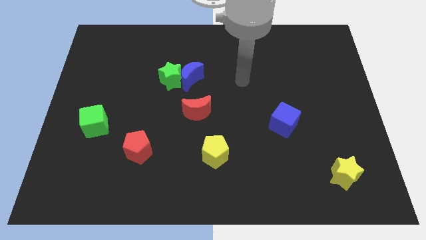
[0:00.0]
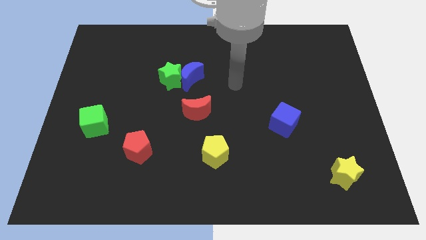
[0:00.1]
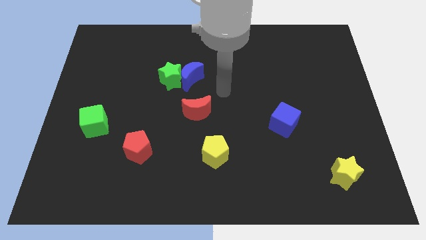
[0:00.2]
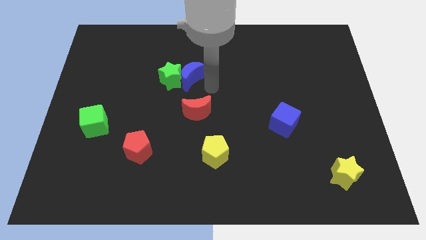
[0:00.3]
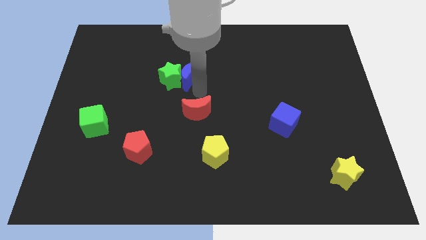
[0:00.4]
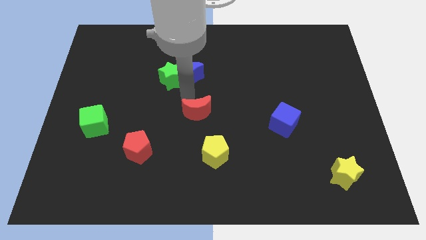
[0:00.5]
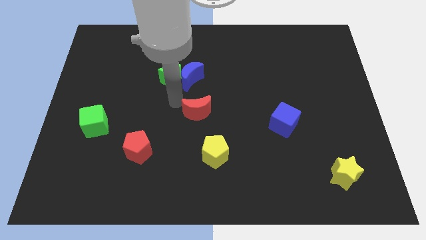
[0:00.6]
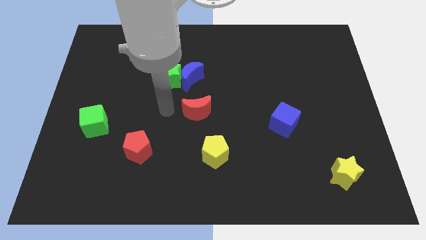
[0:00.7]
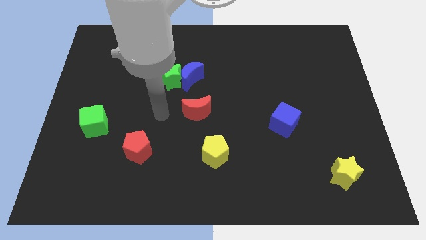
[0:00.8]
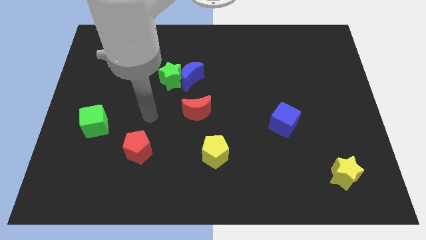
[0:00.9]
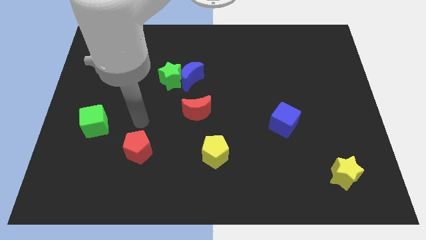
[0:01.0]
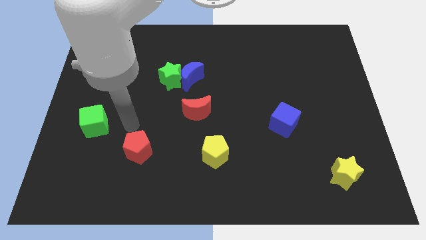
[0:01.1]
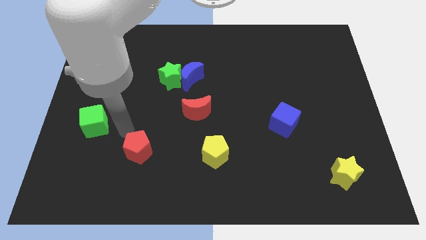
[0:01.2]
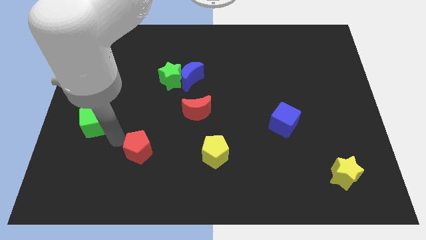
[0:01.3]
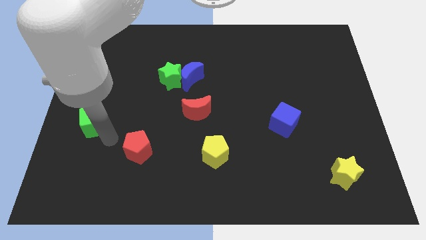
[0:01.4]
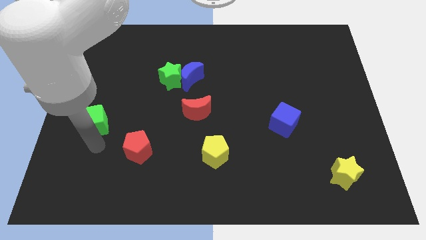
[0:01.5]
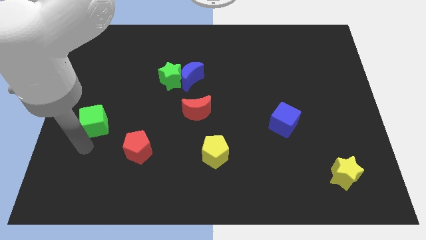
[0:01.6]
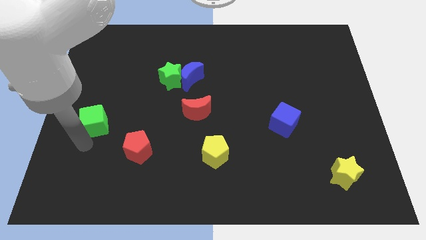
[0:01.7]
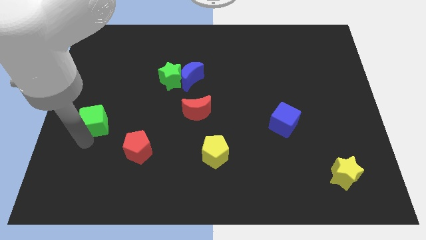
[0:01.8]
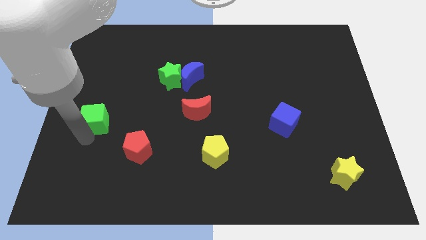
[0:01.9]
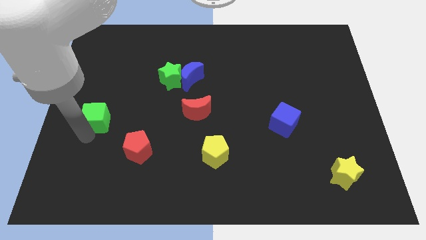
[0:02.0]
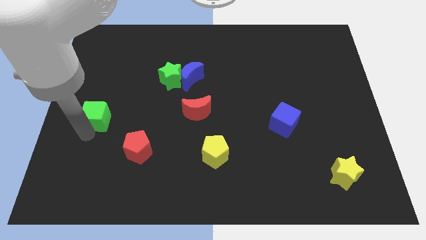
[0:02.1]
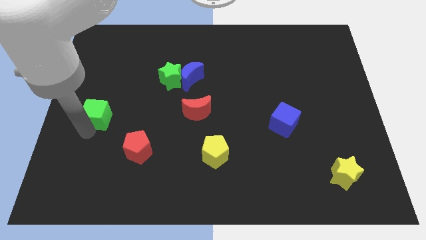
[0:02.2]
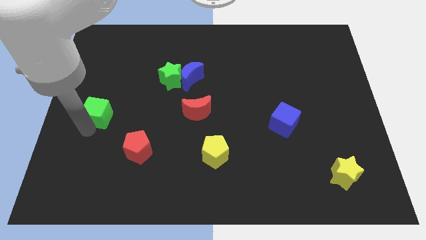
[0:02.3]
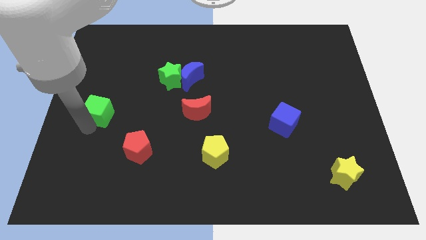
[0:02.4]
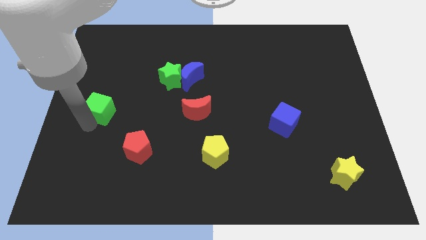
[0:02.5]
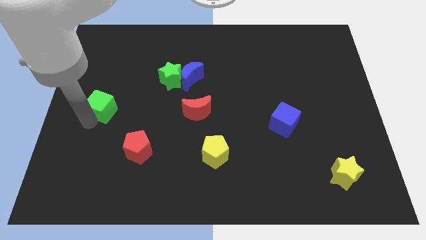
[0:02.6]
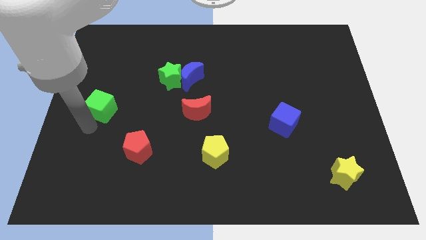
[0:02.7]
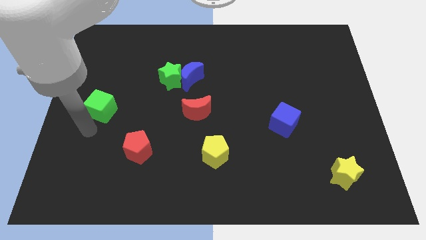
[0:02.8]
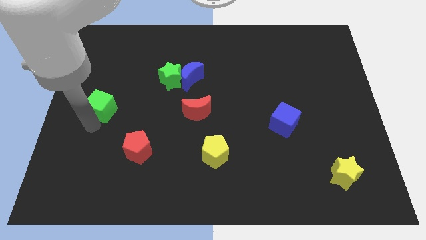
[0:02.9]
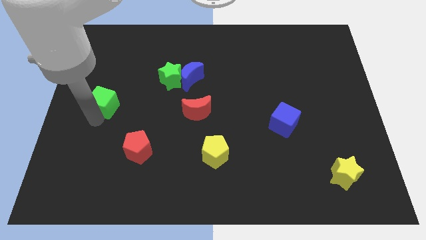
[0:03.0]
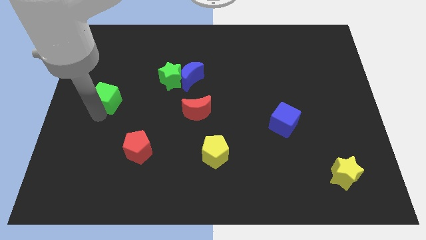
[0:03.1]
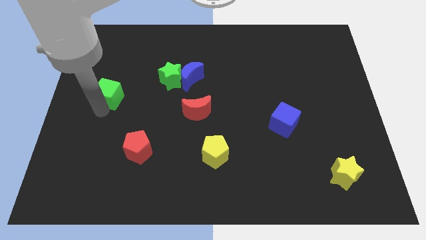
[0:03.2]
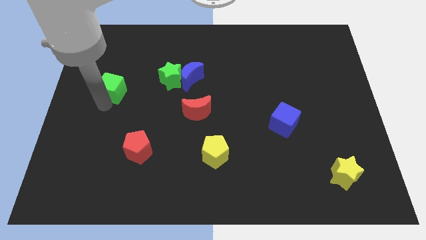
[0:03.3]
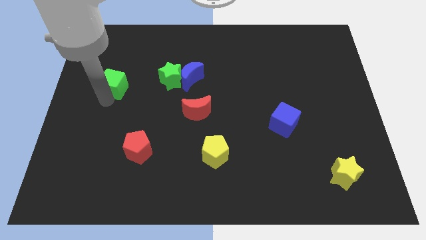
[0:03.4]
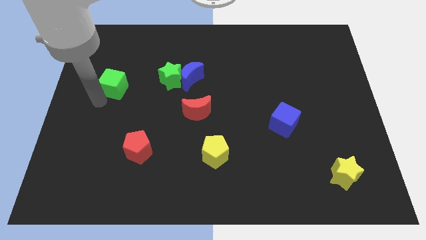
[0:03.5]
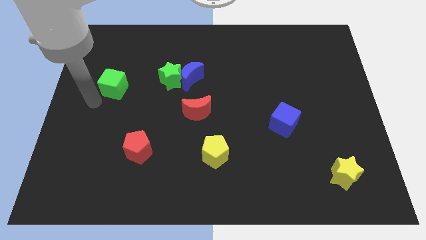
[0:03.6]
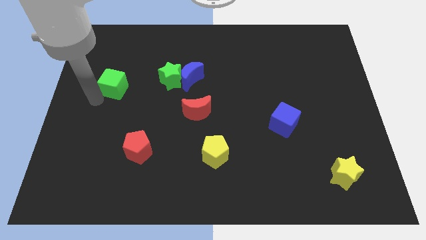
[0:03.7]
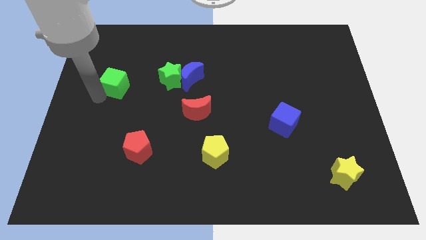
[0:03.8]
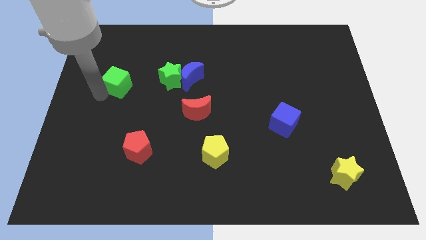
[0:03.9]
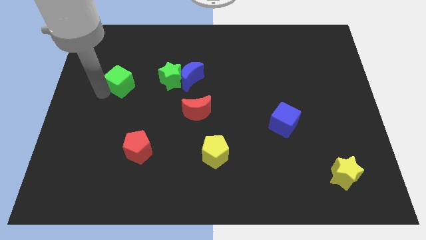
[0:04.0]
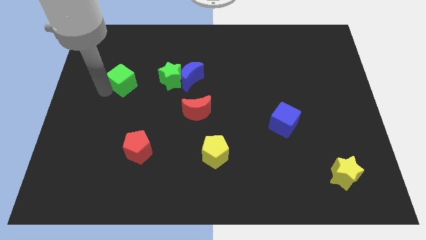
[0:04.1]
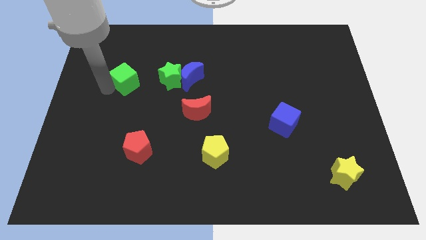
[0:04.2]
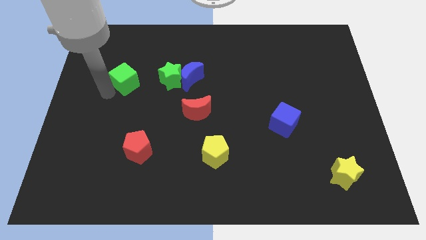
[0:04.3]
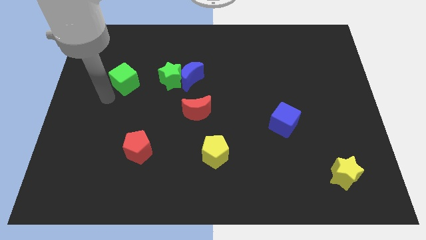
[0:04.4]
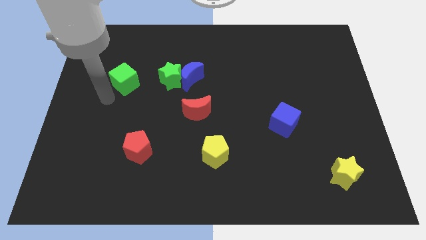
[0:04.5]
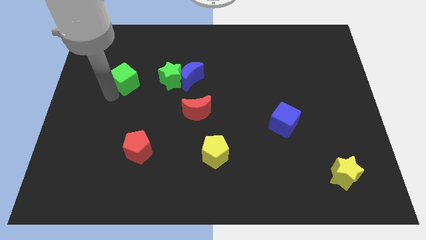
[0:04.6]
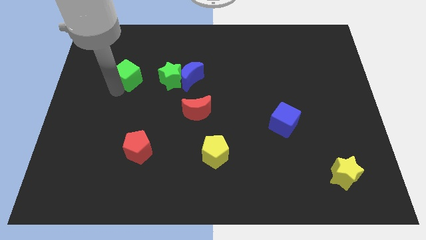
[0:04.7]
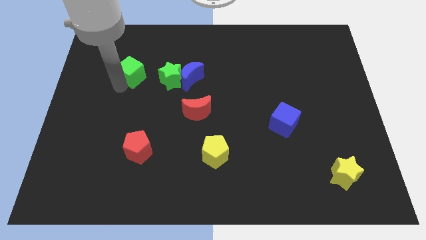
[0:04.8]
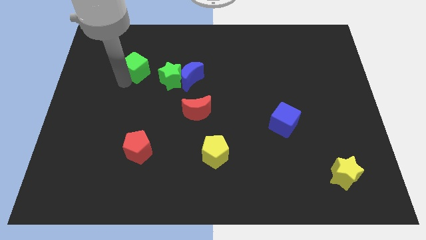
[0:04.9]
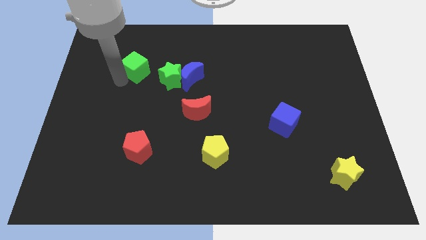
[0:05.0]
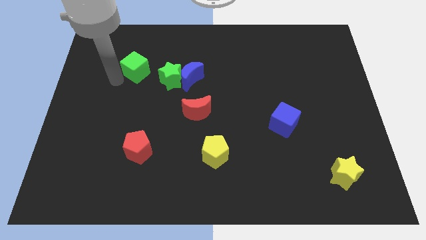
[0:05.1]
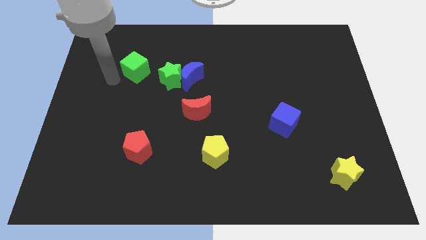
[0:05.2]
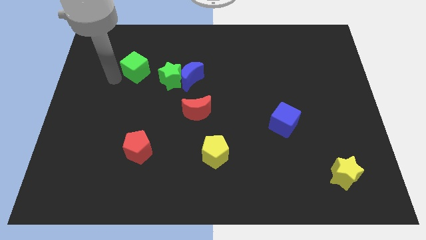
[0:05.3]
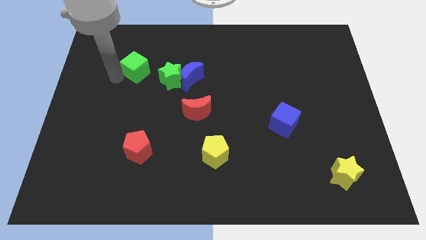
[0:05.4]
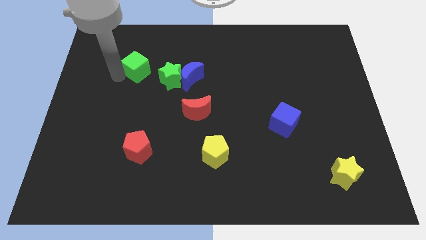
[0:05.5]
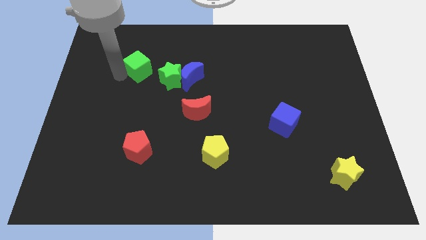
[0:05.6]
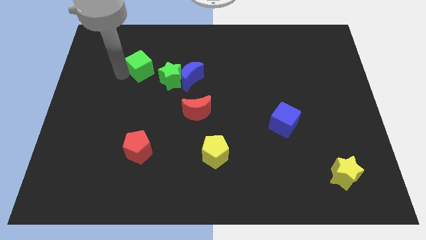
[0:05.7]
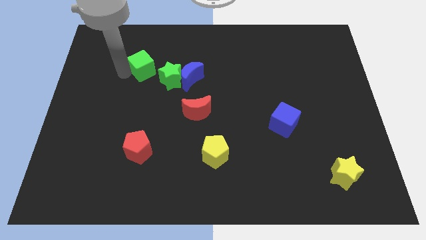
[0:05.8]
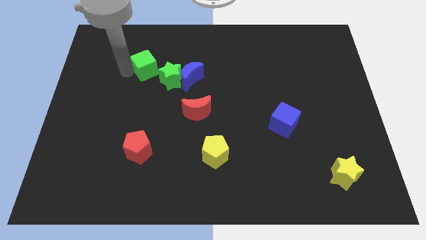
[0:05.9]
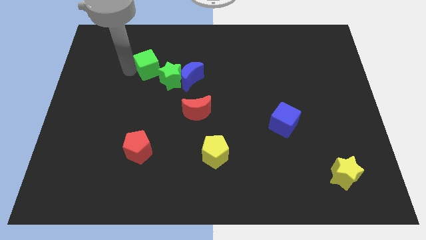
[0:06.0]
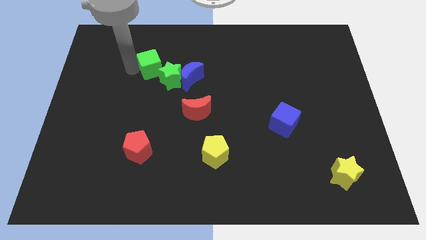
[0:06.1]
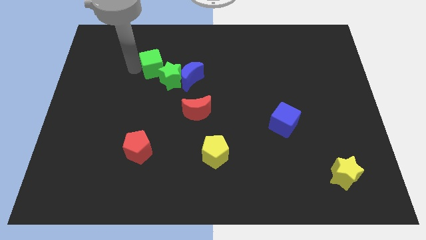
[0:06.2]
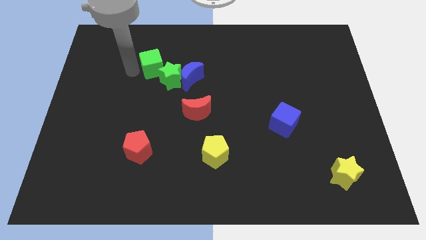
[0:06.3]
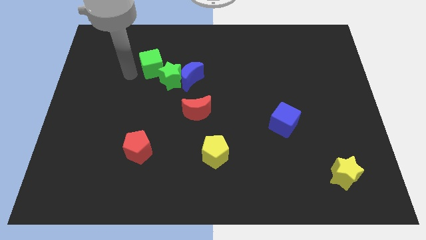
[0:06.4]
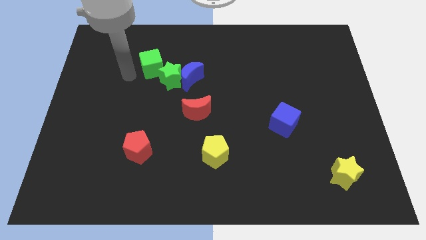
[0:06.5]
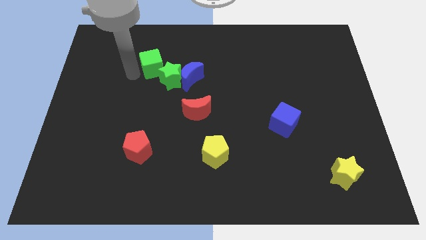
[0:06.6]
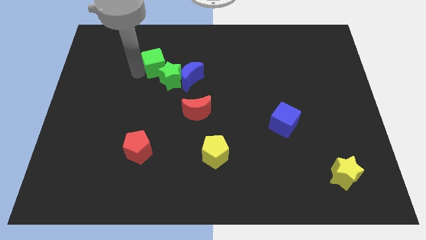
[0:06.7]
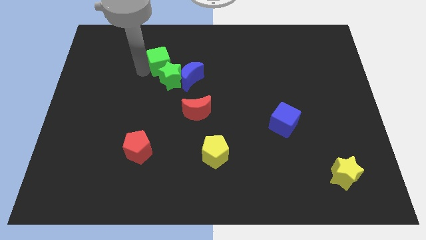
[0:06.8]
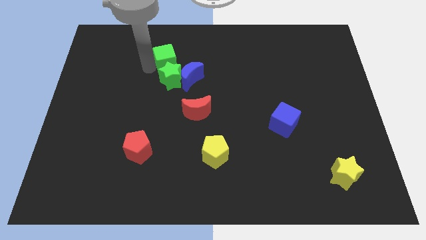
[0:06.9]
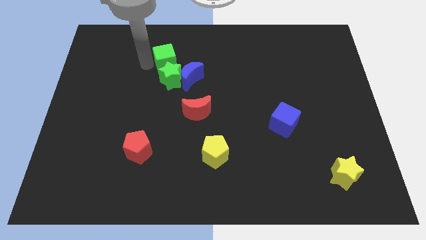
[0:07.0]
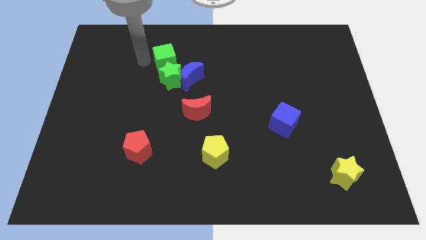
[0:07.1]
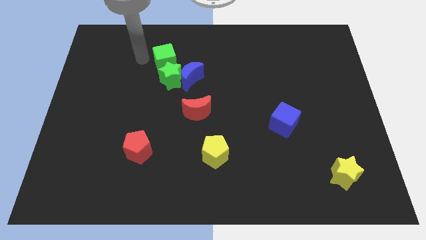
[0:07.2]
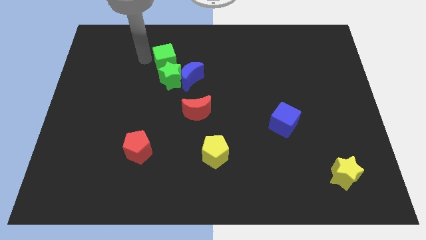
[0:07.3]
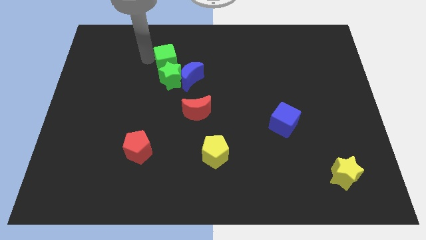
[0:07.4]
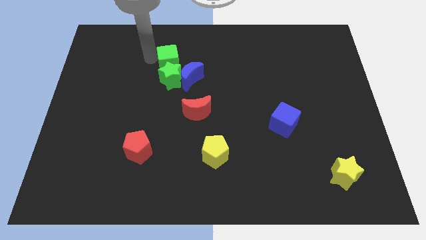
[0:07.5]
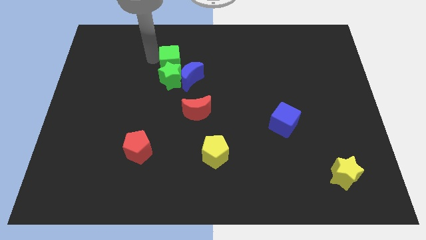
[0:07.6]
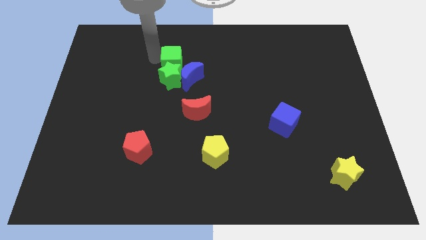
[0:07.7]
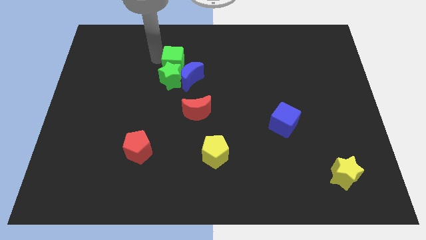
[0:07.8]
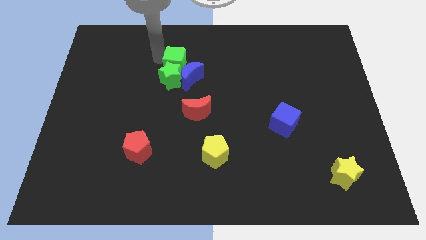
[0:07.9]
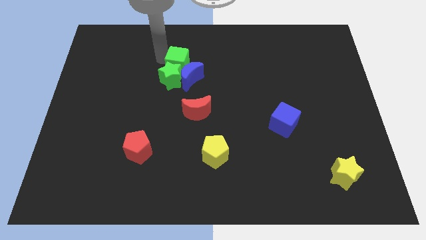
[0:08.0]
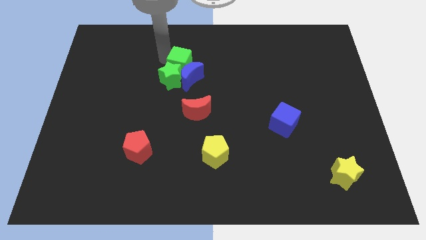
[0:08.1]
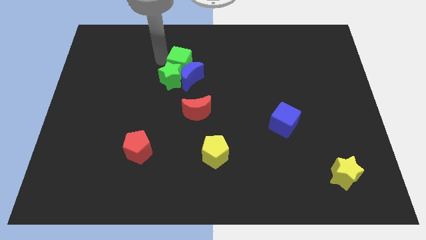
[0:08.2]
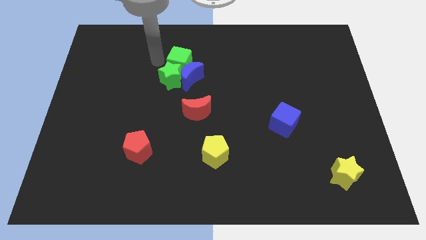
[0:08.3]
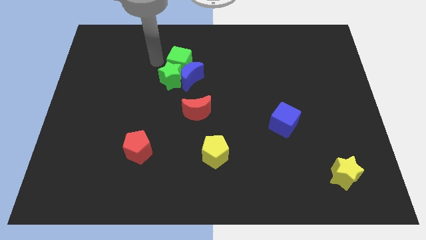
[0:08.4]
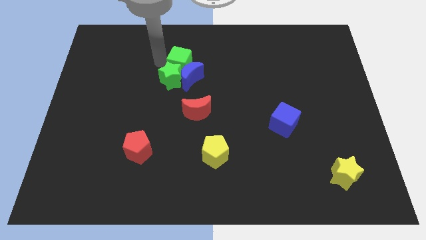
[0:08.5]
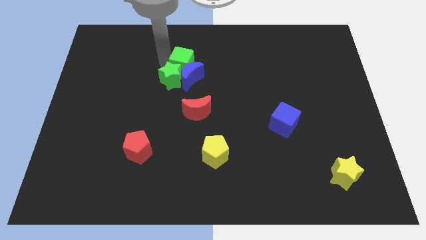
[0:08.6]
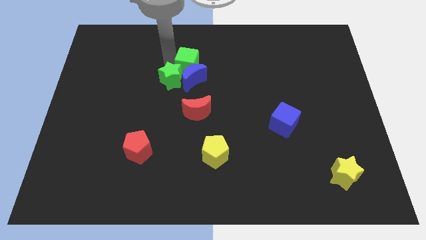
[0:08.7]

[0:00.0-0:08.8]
push the green cube to the top of the red moon
